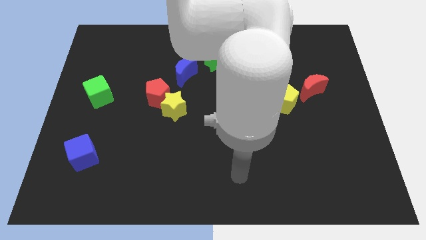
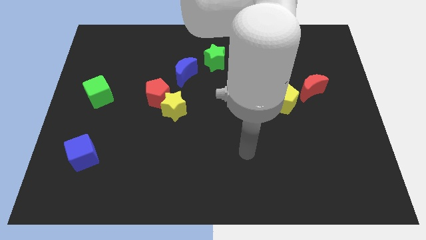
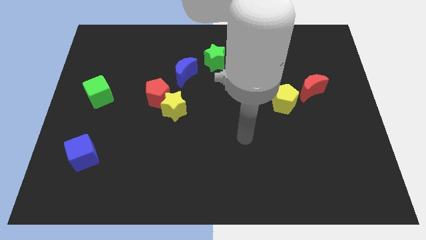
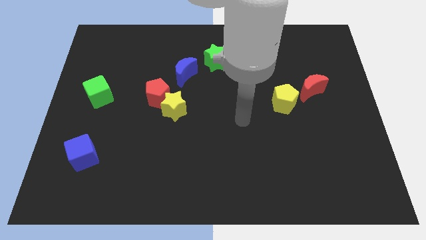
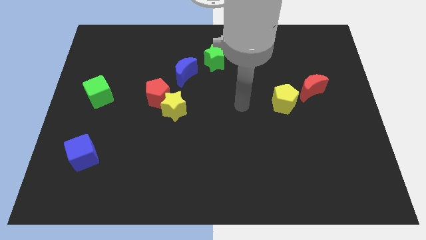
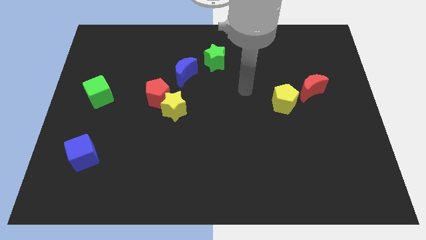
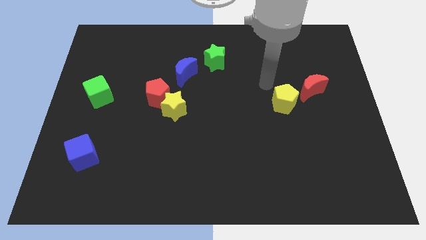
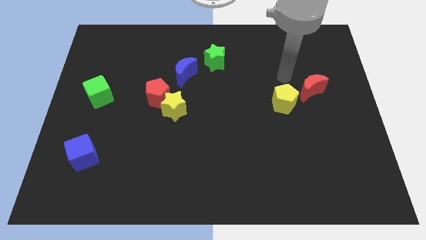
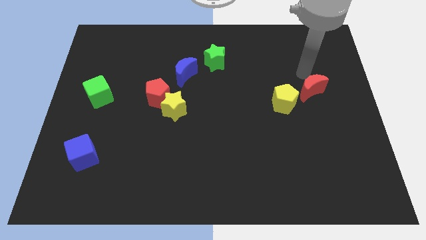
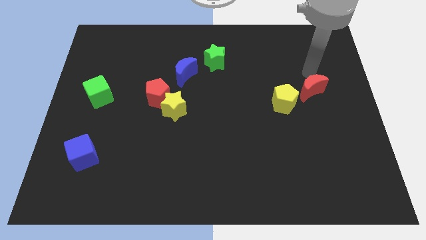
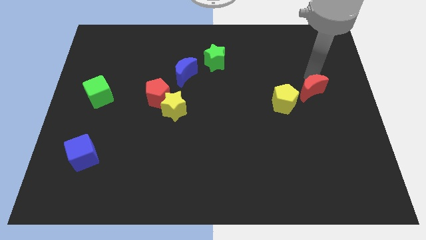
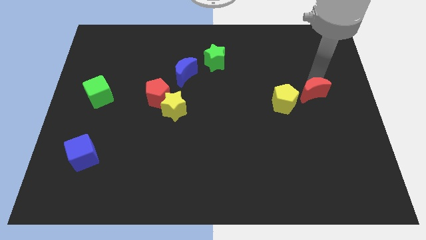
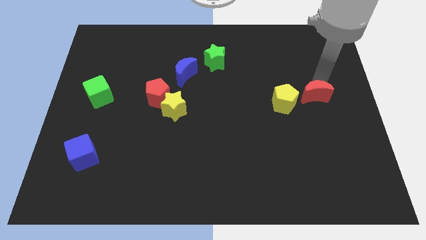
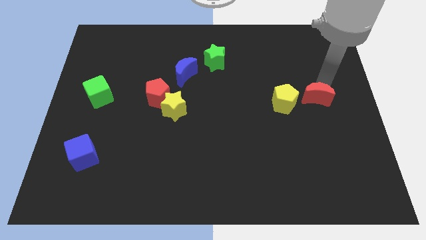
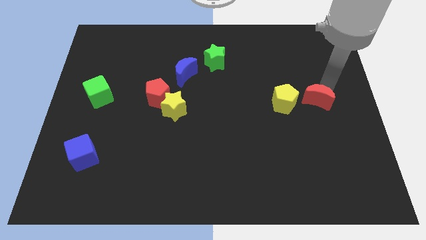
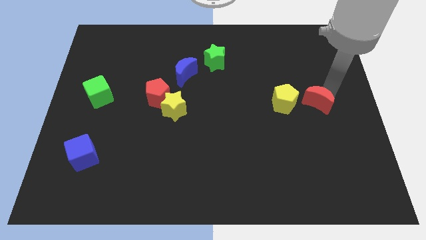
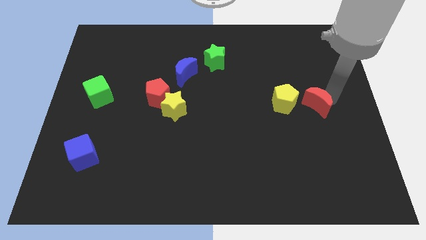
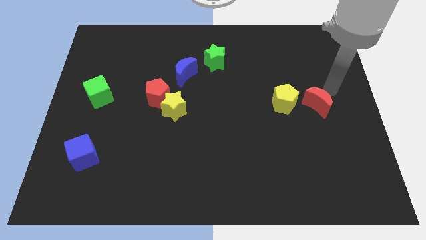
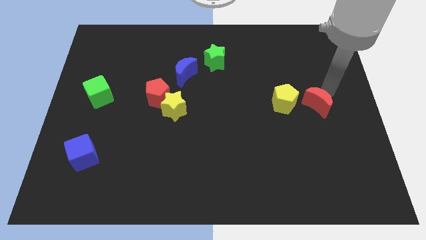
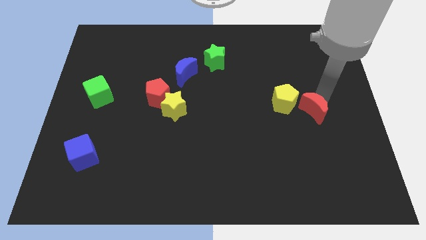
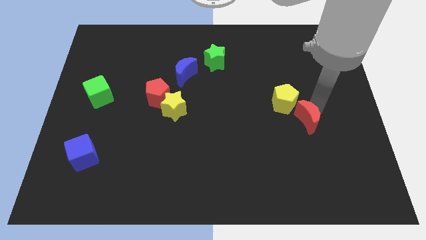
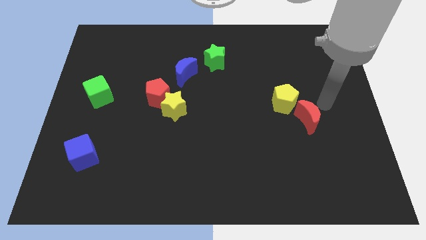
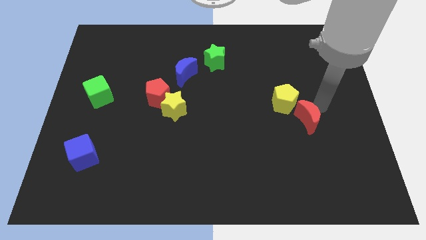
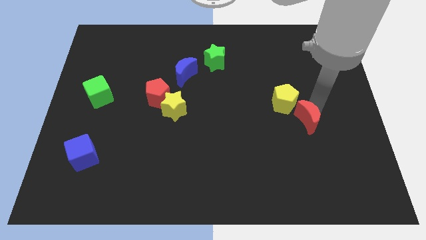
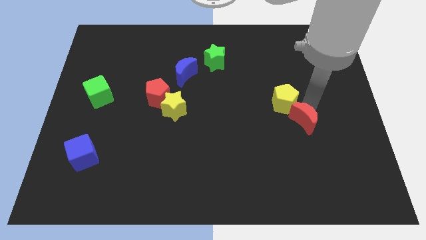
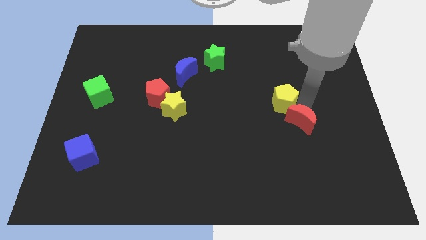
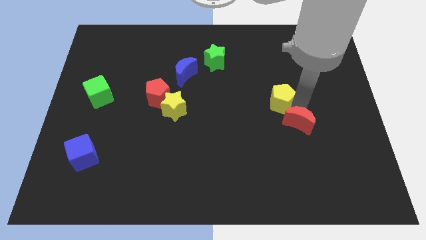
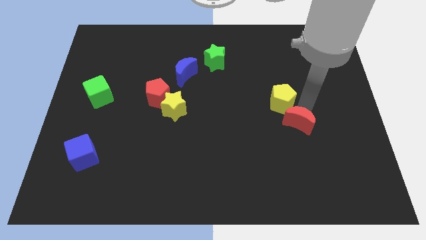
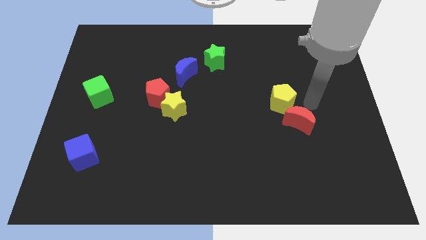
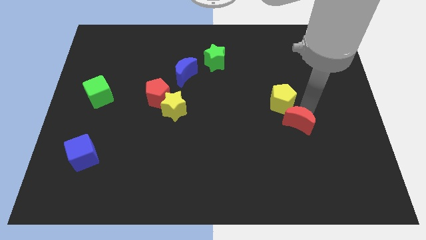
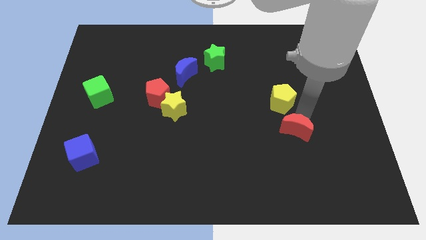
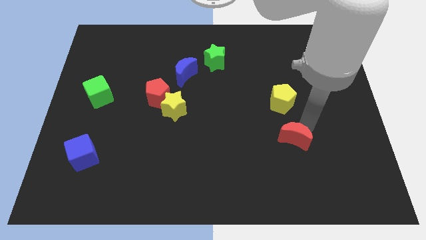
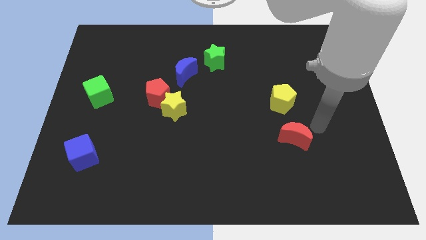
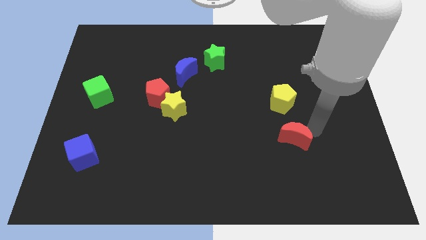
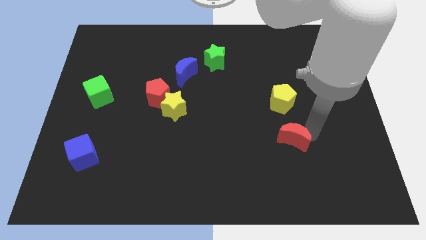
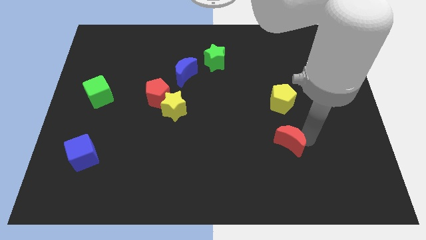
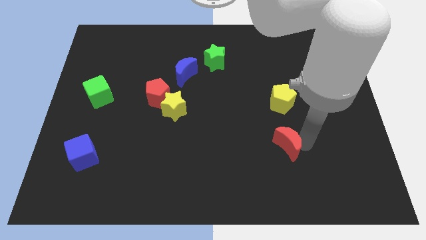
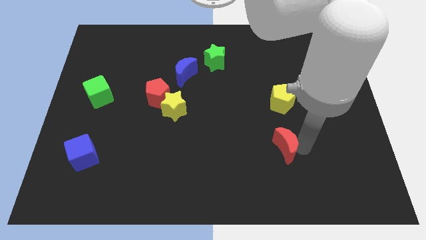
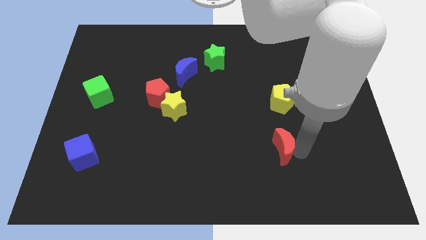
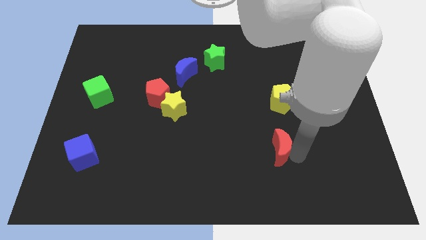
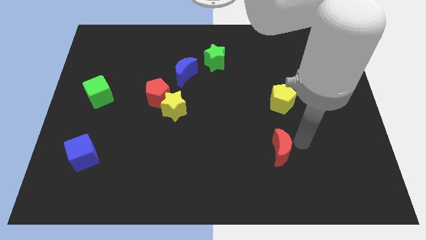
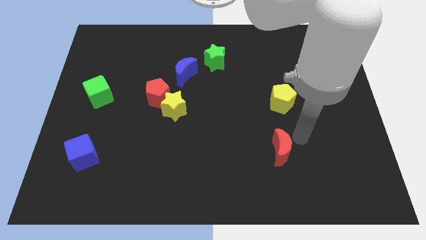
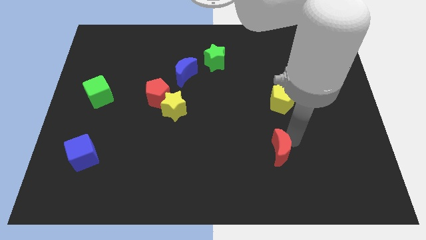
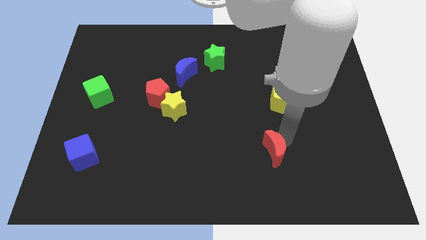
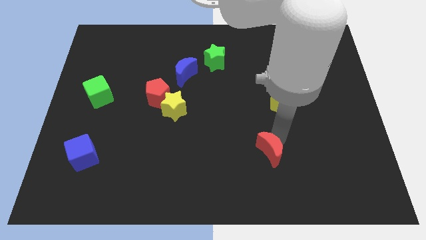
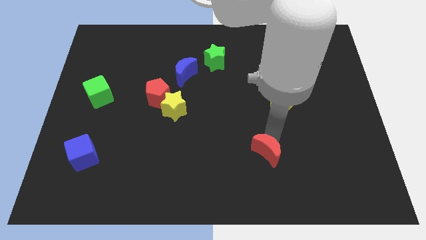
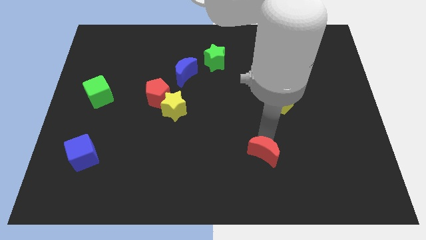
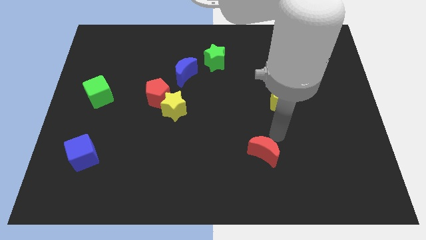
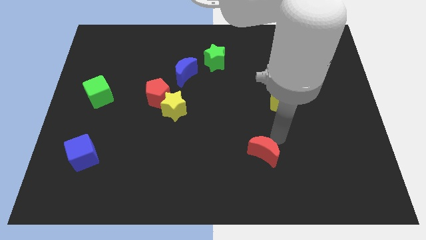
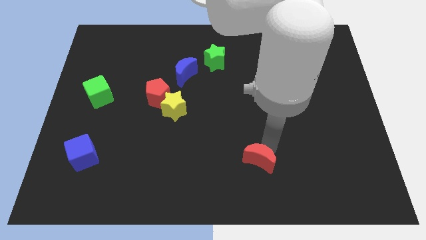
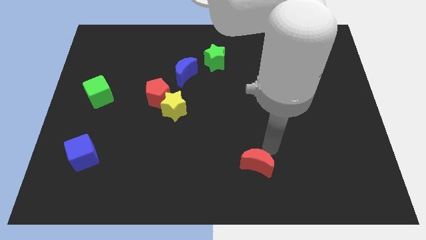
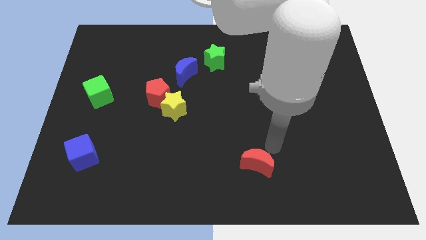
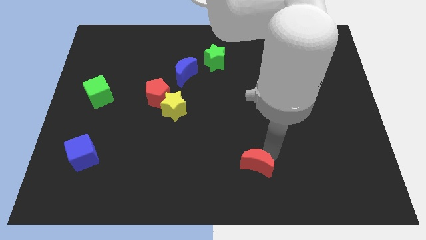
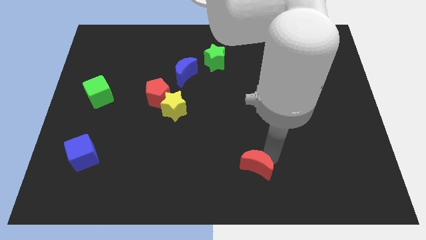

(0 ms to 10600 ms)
slide the red moon to the bottom

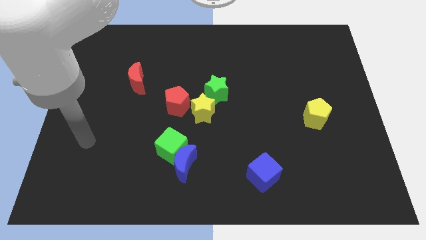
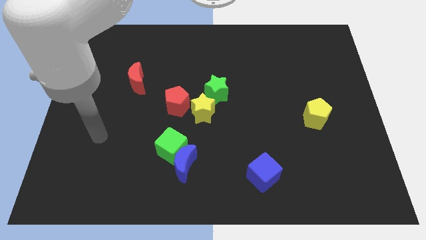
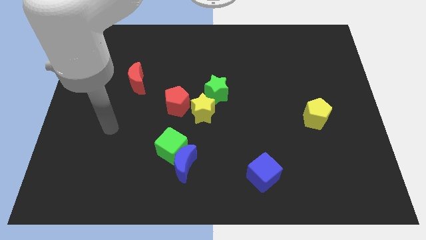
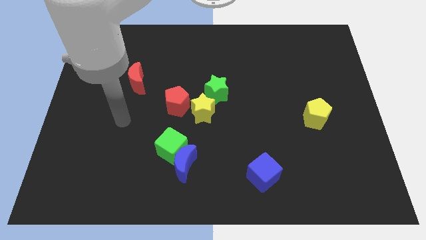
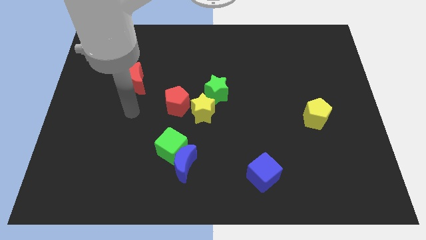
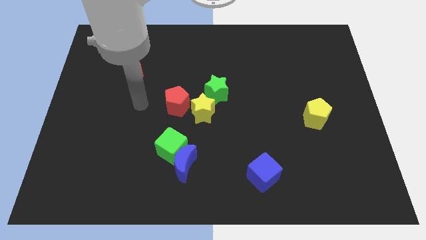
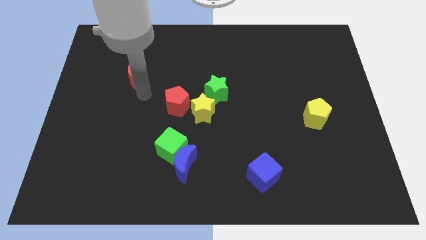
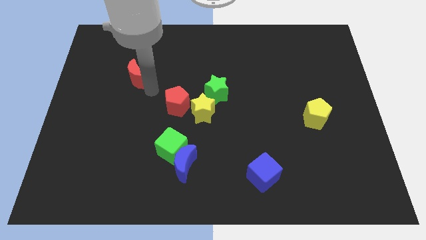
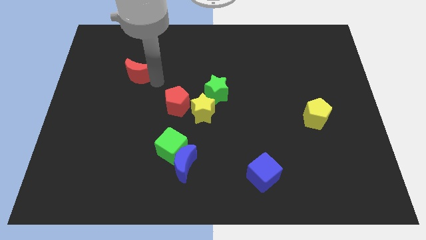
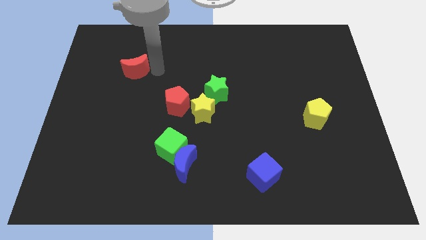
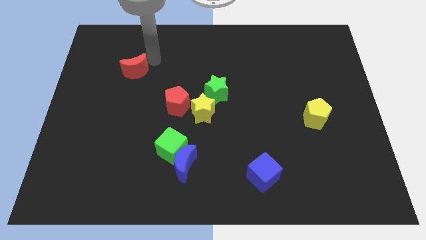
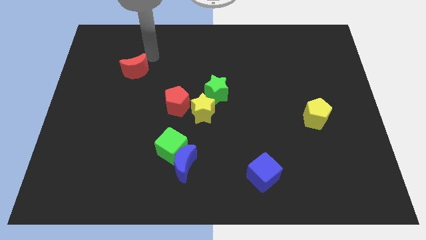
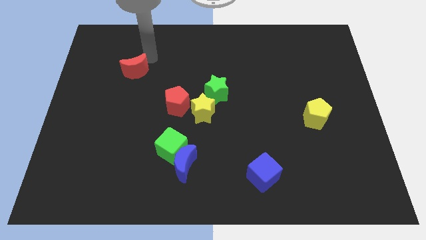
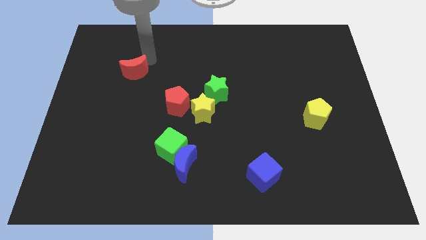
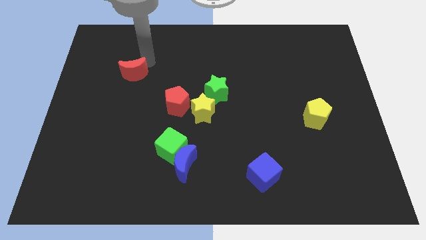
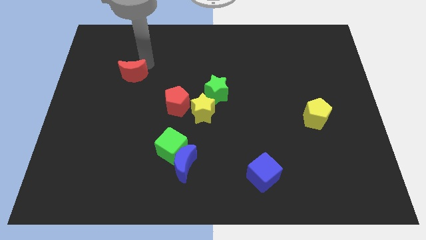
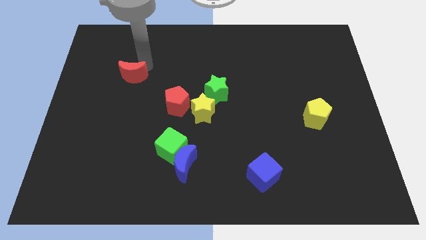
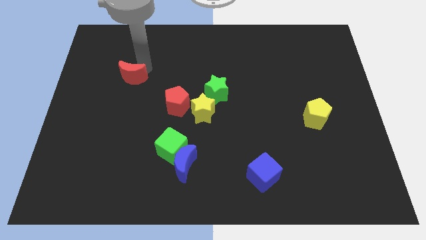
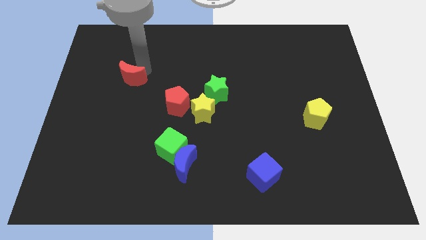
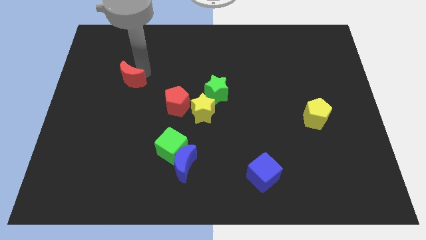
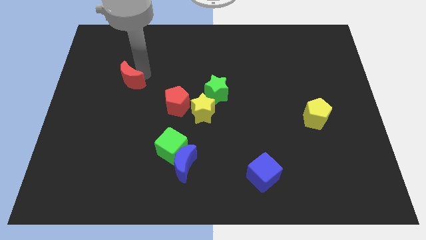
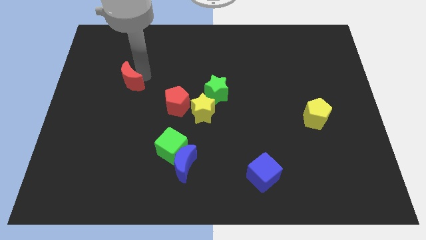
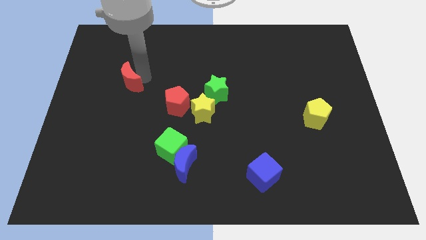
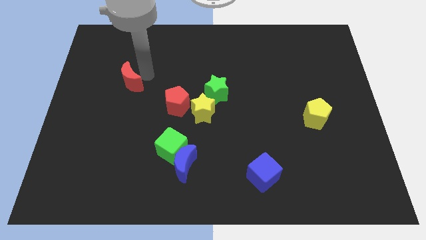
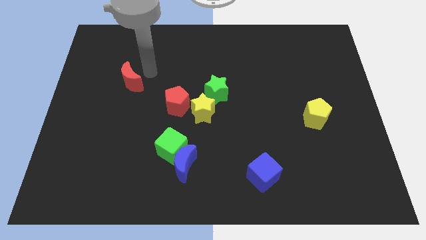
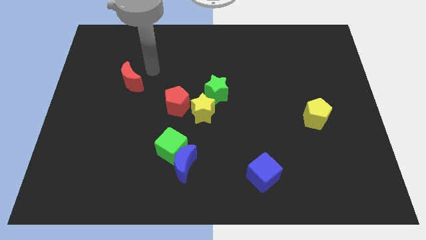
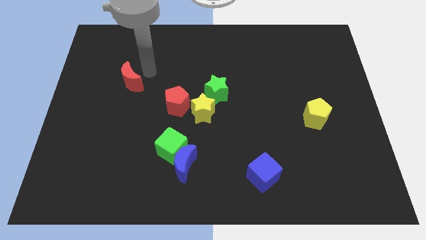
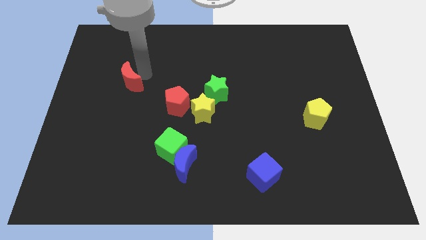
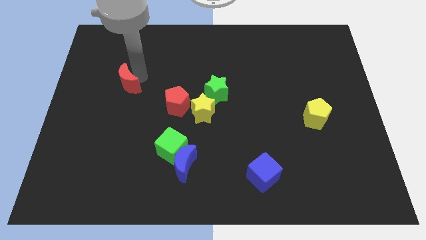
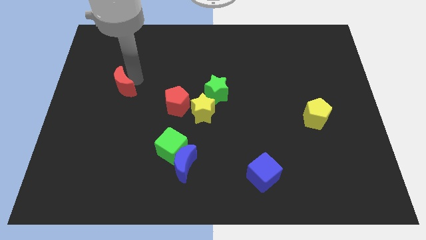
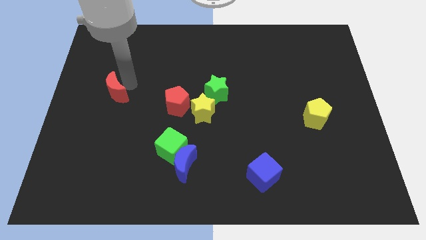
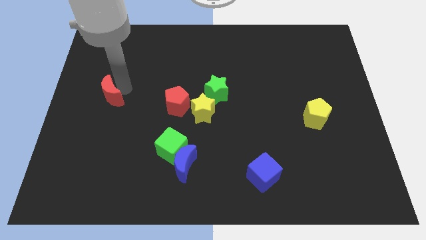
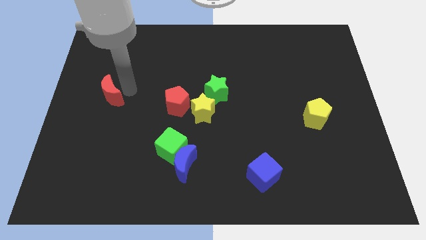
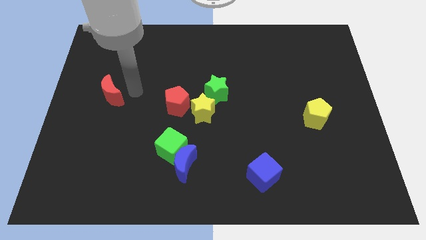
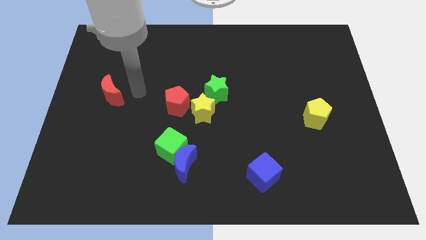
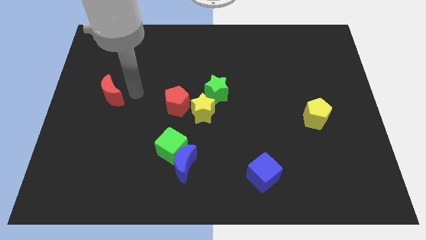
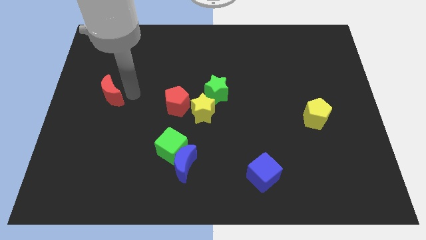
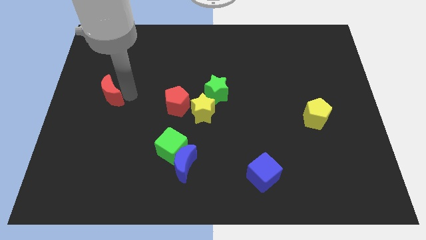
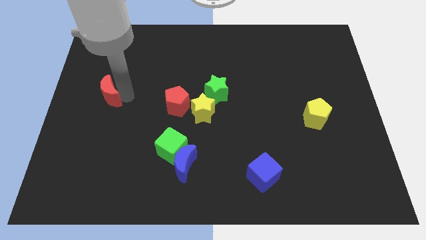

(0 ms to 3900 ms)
push the red moon to the center left
